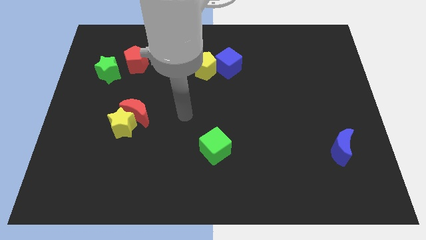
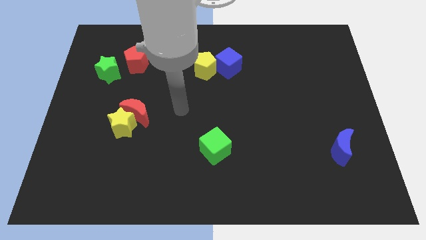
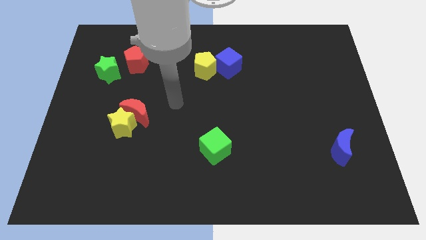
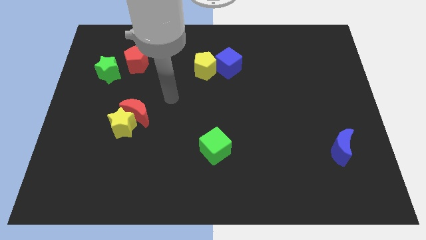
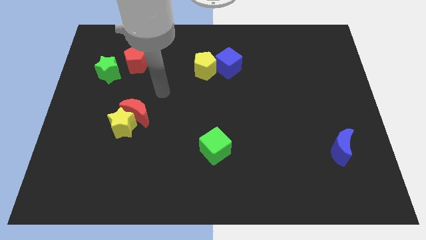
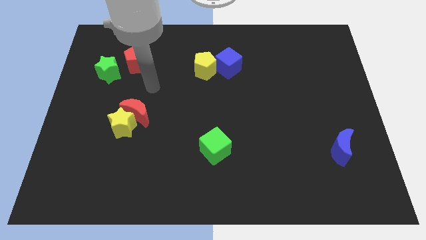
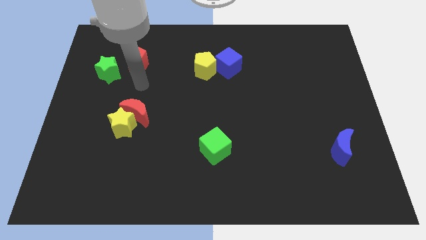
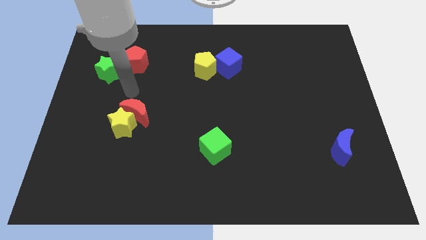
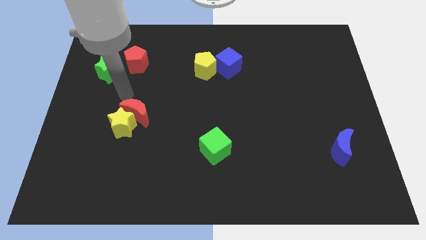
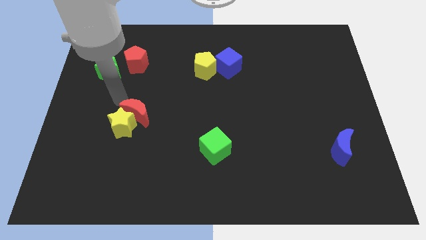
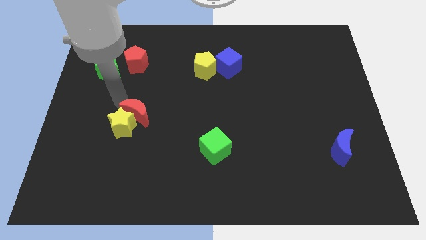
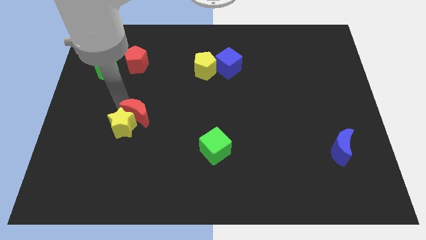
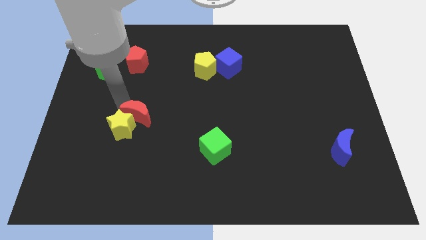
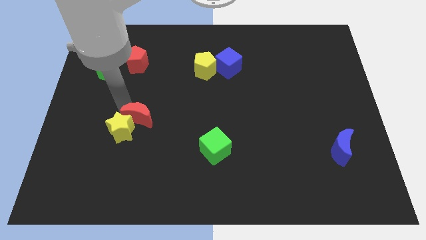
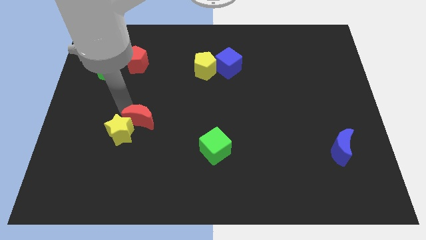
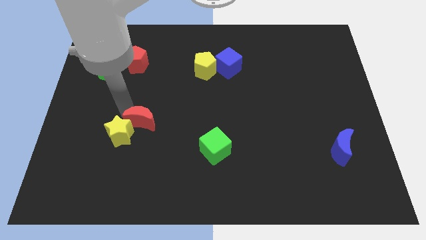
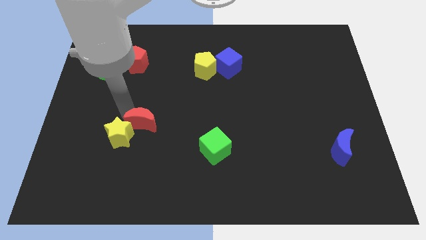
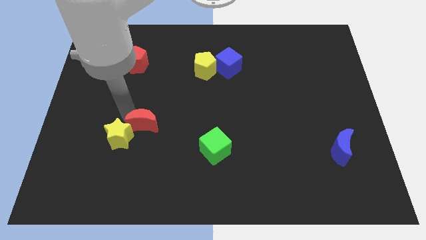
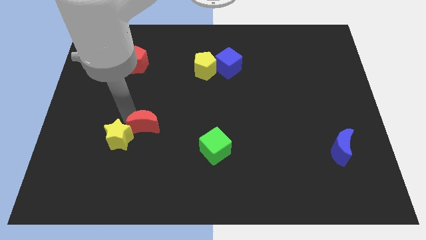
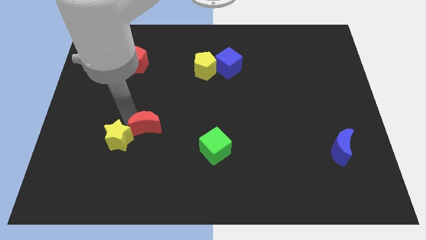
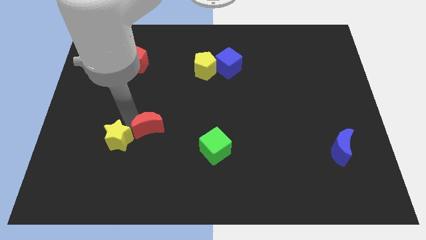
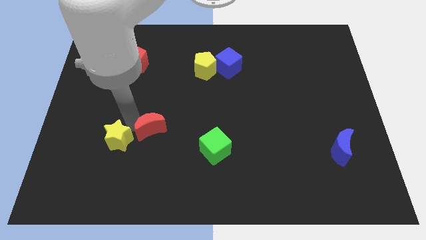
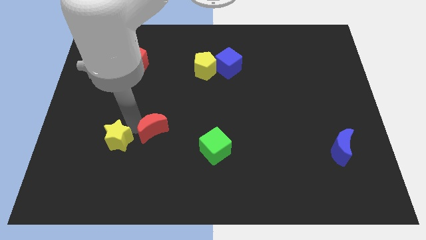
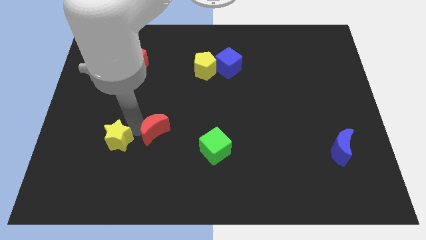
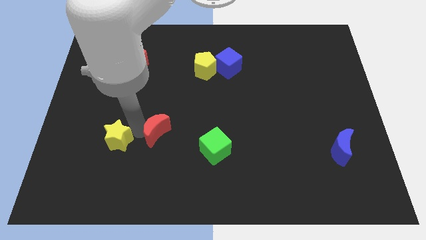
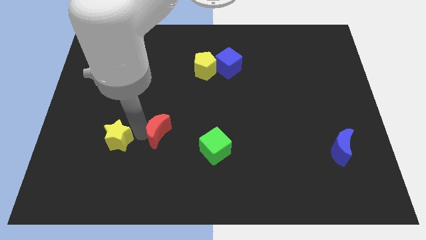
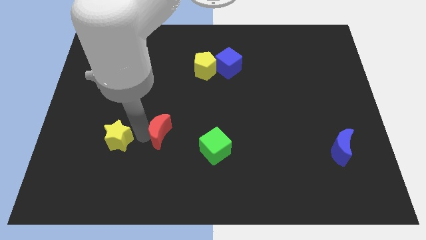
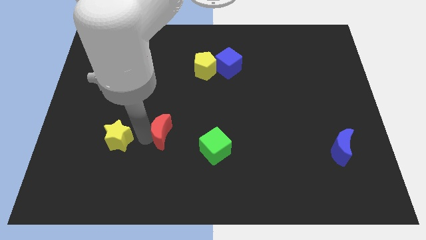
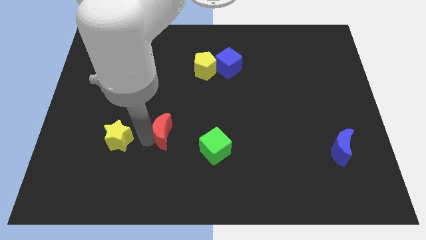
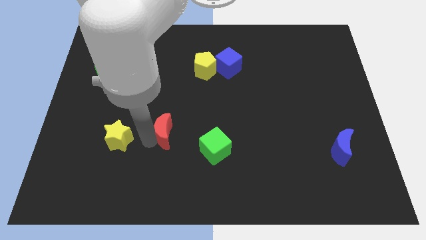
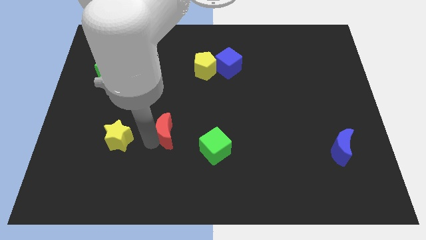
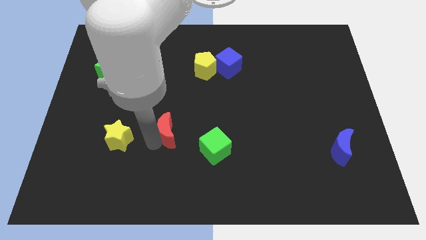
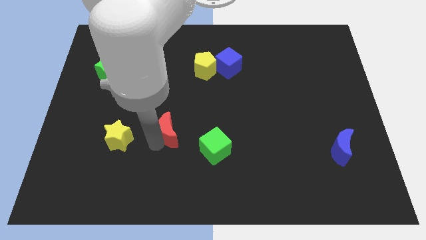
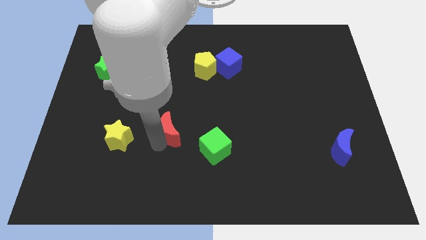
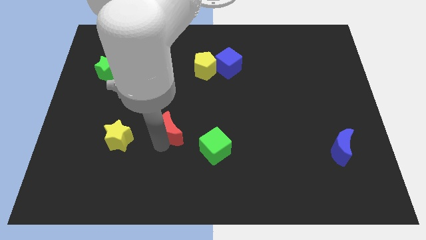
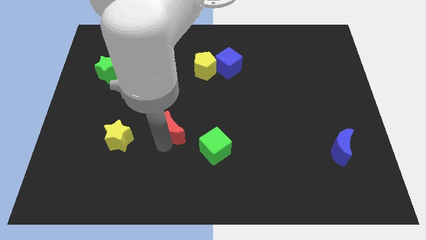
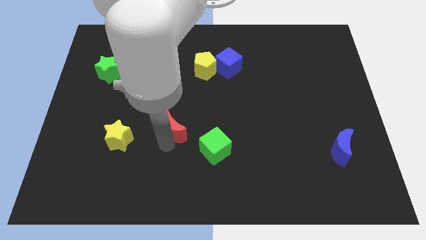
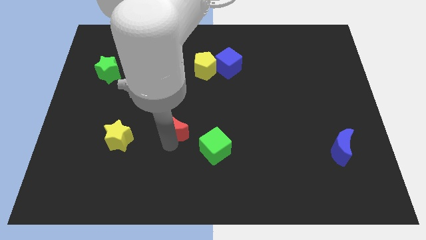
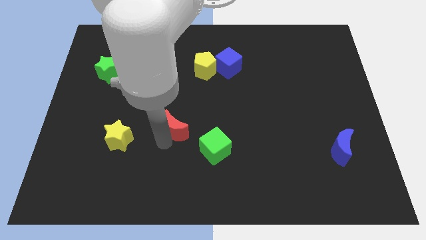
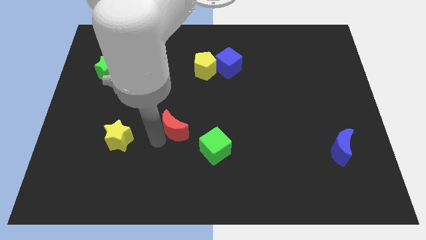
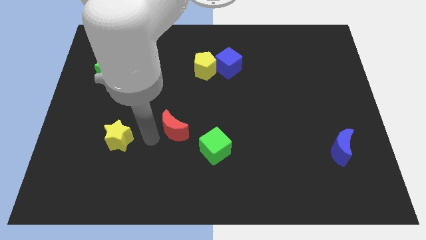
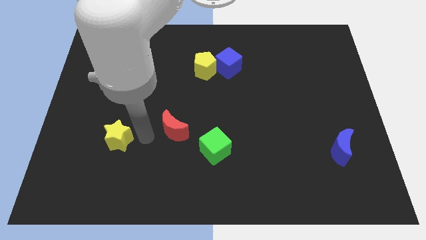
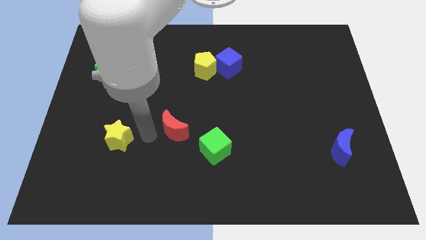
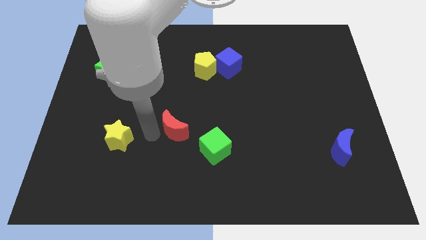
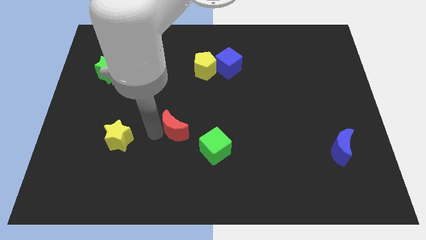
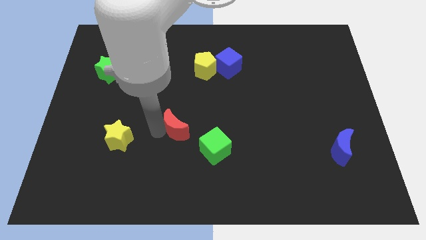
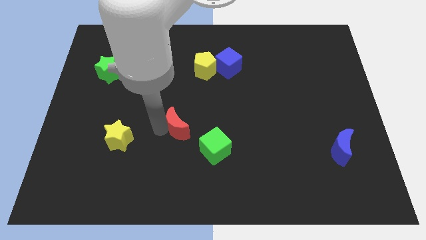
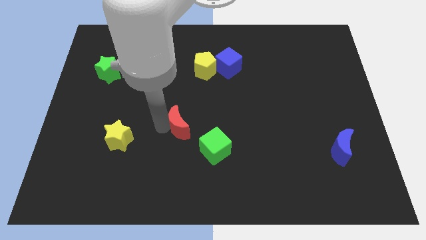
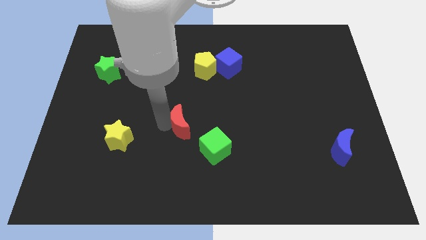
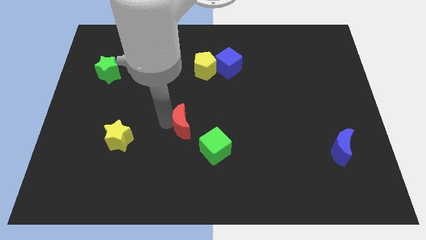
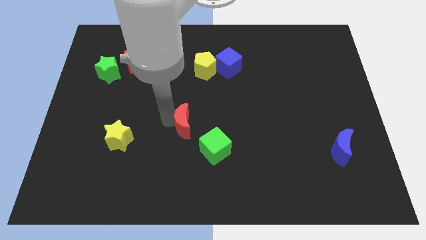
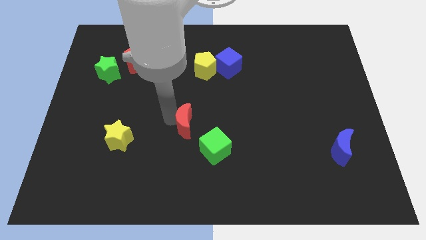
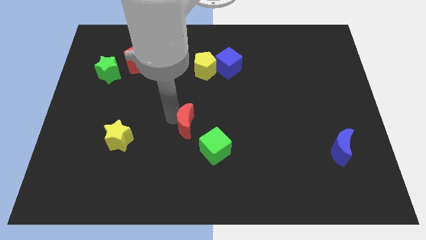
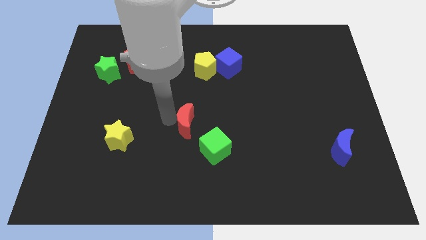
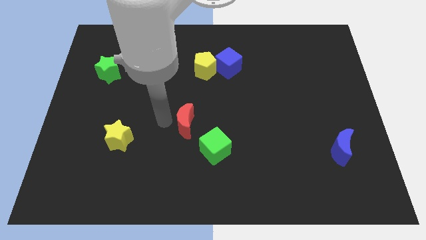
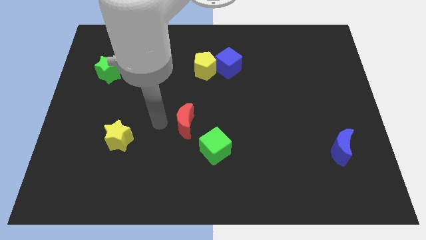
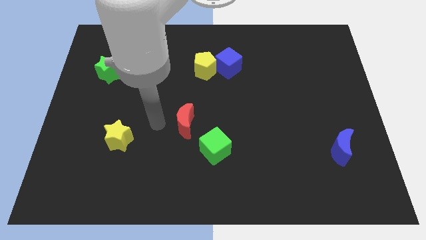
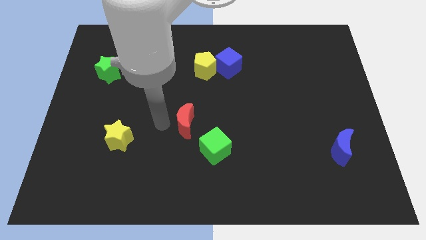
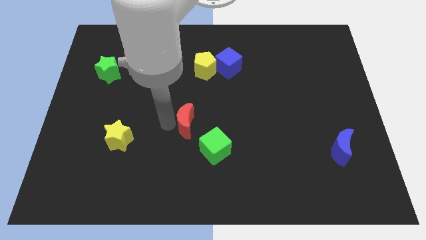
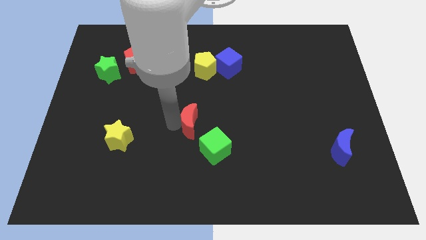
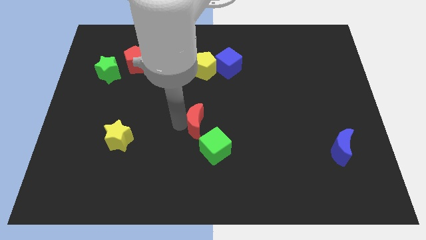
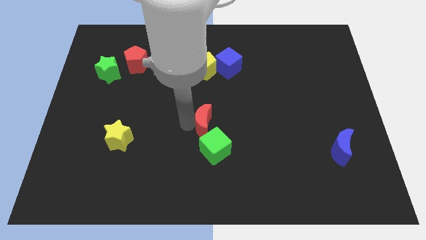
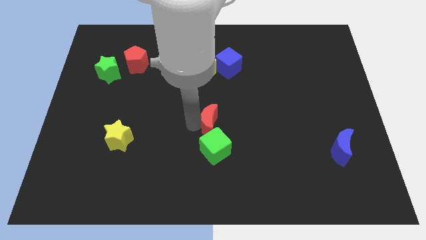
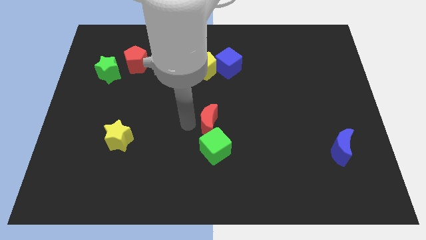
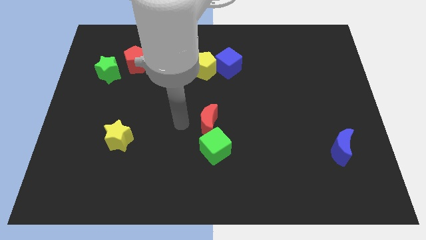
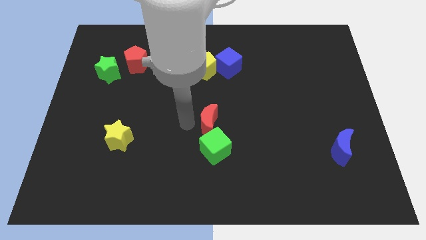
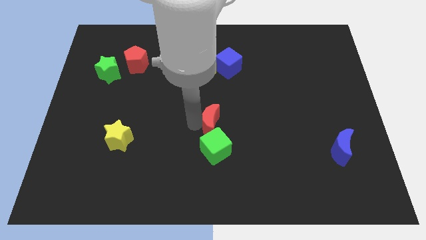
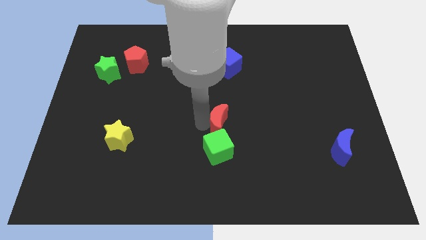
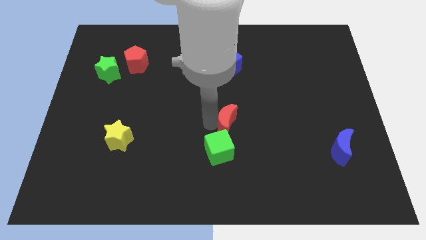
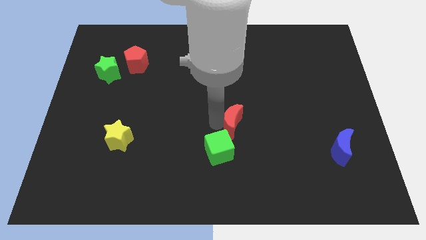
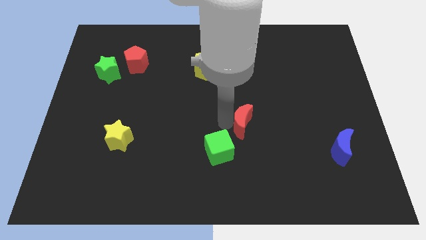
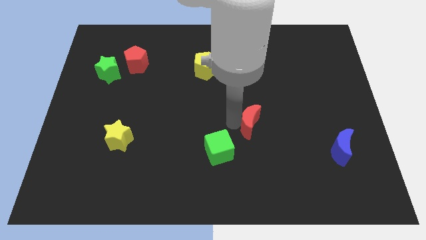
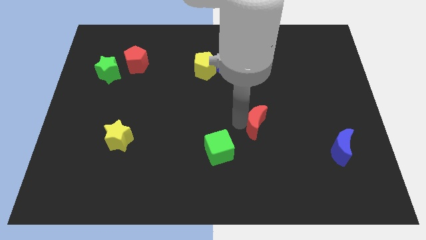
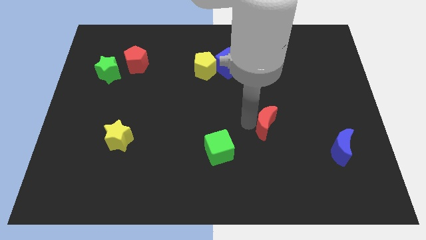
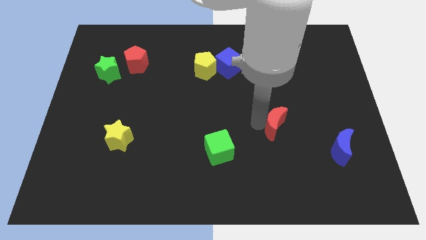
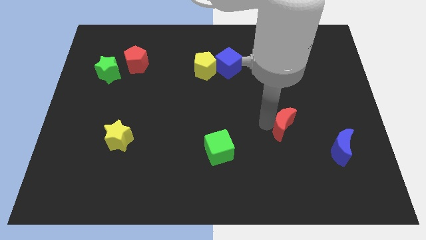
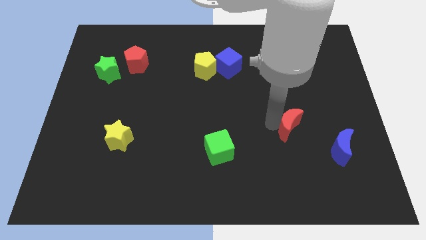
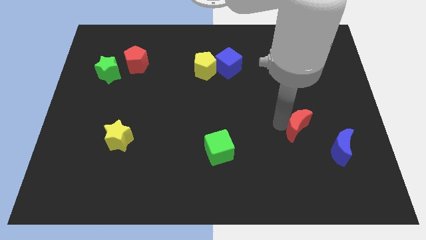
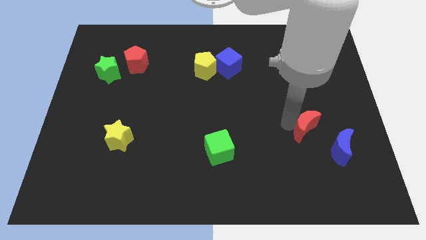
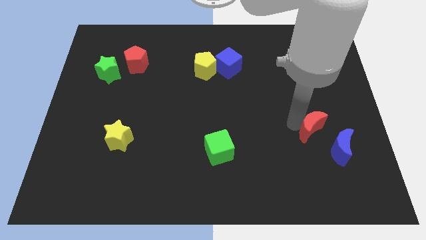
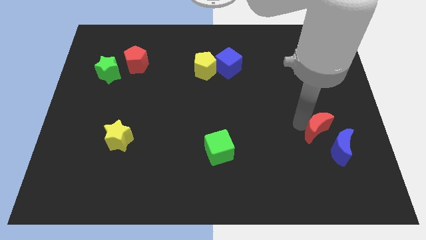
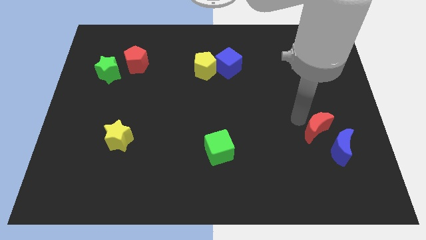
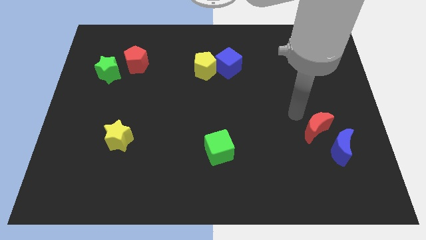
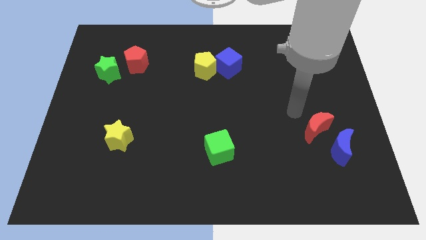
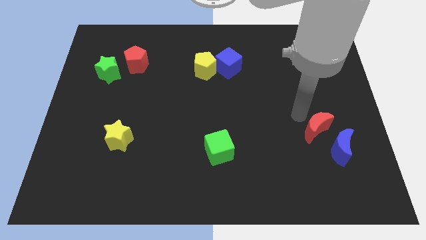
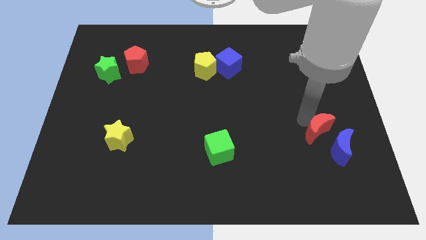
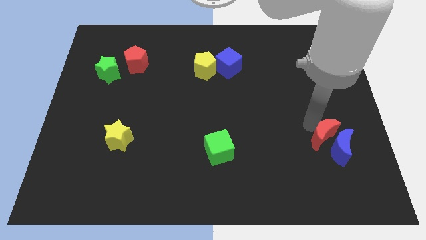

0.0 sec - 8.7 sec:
put the red moon next to the blue moon
